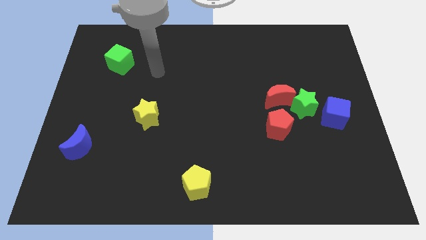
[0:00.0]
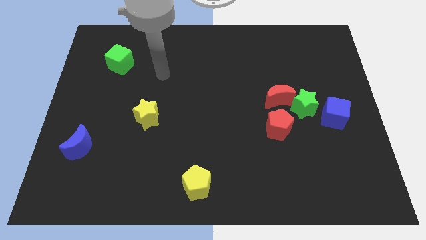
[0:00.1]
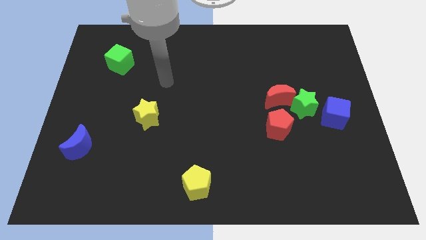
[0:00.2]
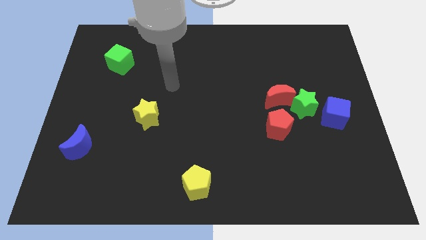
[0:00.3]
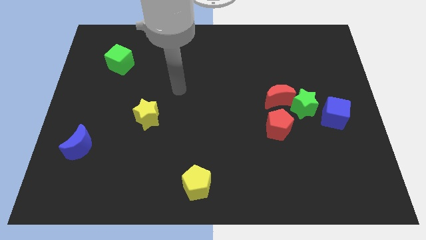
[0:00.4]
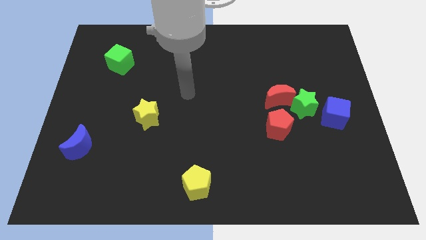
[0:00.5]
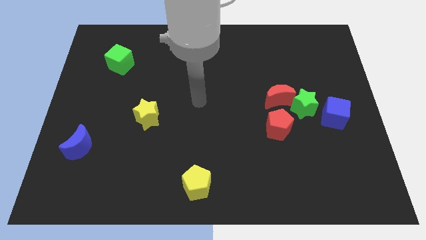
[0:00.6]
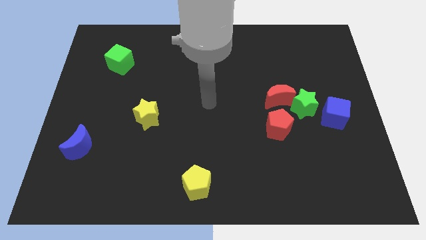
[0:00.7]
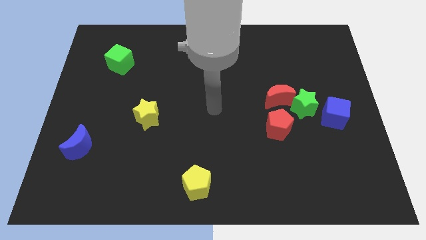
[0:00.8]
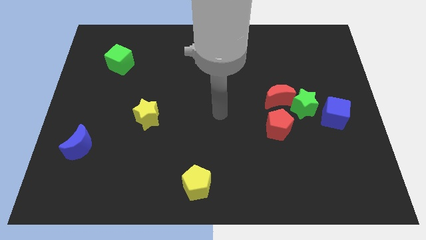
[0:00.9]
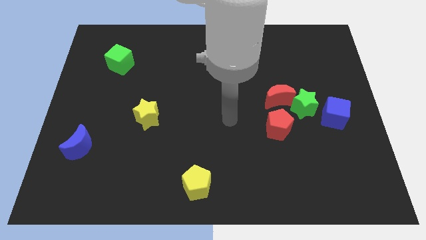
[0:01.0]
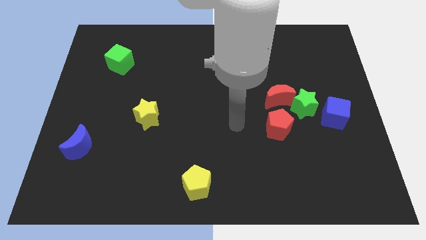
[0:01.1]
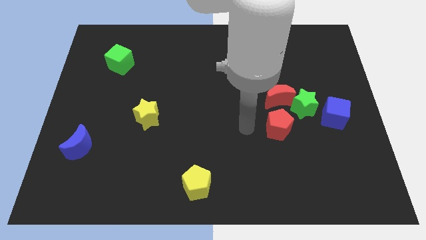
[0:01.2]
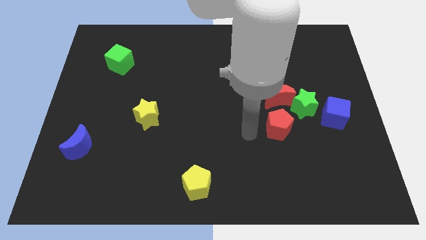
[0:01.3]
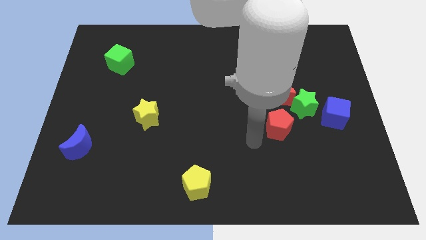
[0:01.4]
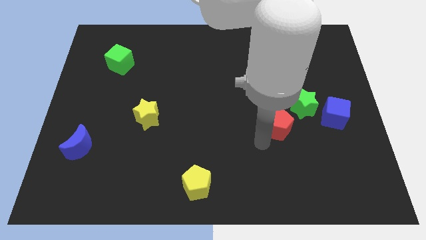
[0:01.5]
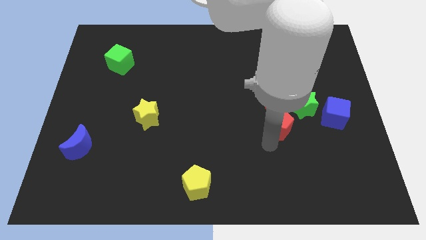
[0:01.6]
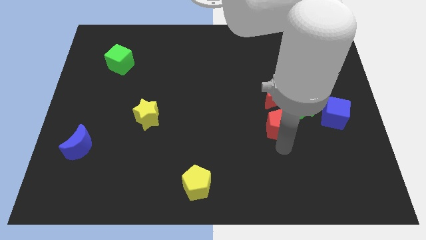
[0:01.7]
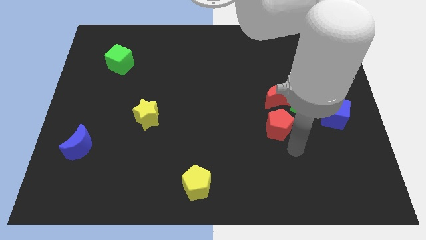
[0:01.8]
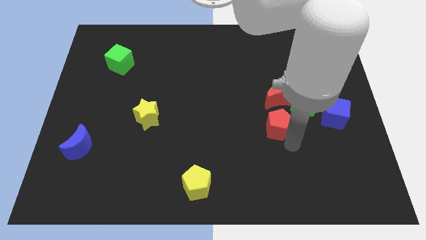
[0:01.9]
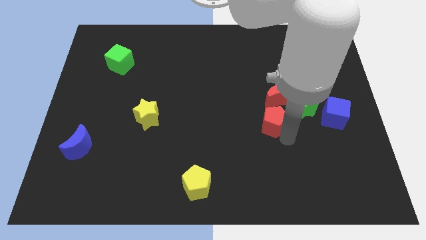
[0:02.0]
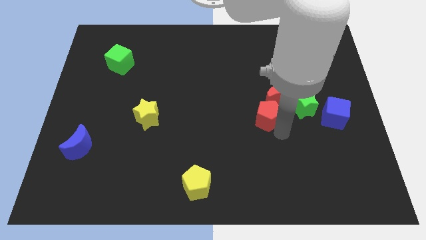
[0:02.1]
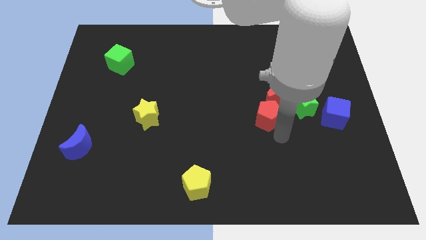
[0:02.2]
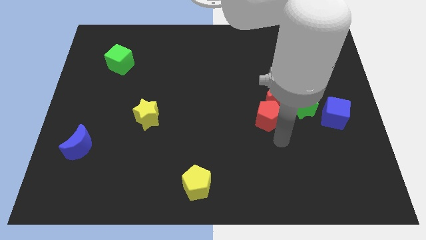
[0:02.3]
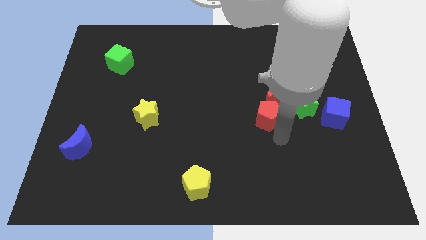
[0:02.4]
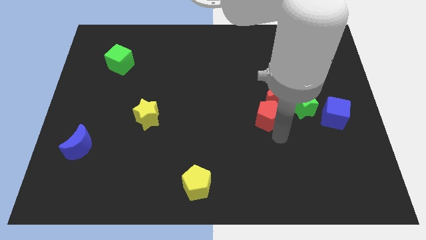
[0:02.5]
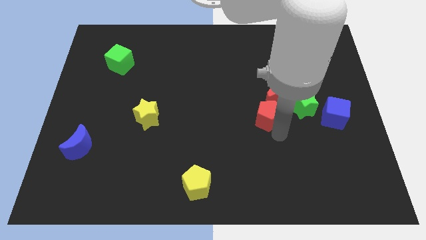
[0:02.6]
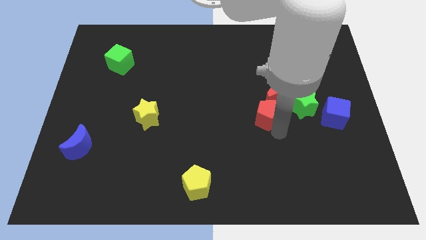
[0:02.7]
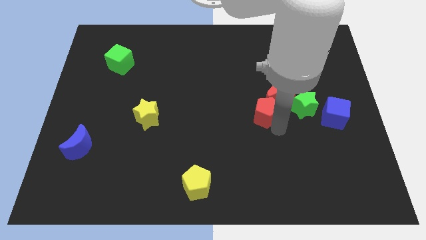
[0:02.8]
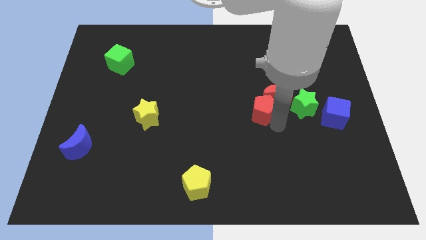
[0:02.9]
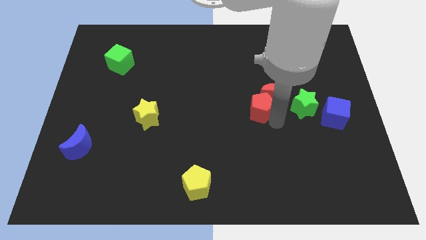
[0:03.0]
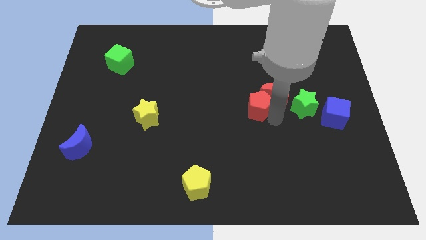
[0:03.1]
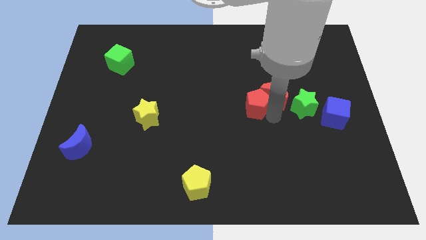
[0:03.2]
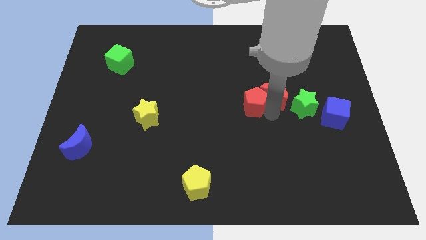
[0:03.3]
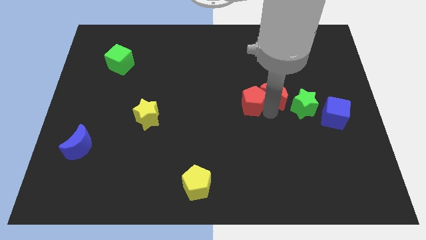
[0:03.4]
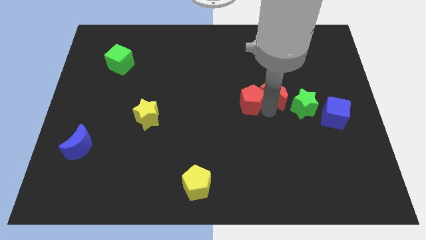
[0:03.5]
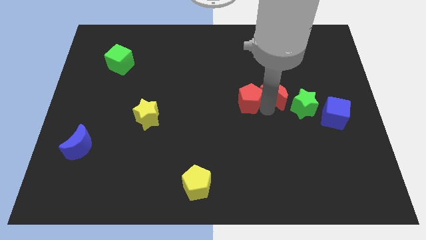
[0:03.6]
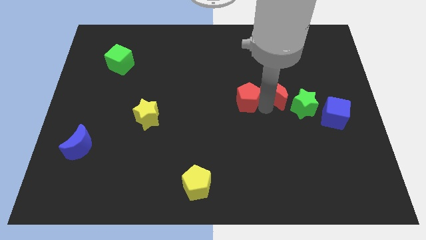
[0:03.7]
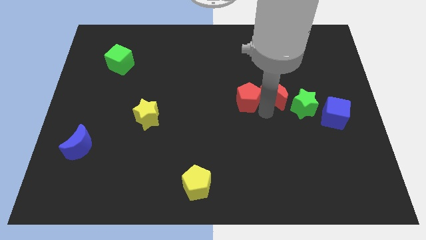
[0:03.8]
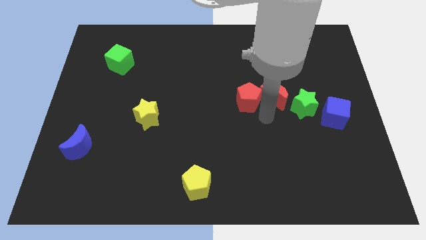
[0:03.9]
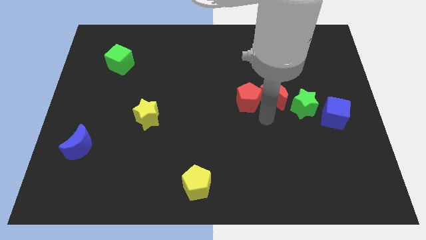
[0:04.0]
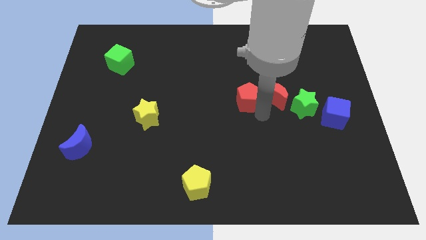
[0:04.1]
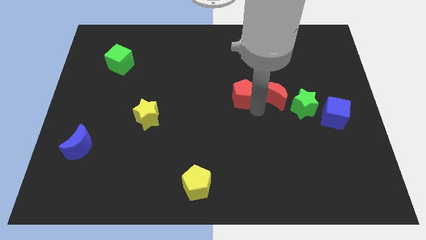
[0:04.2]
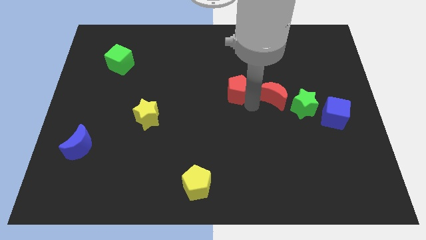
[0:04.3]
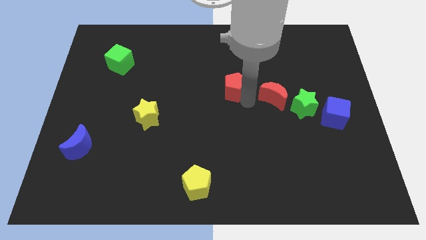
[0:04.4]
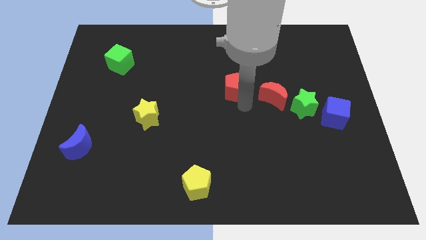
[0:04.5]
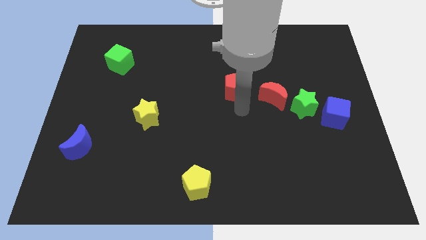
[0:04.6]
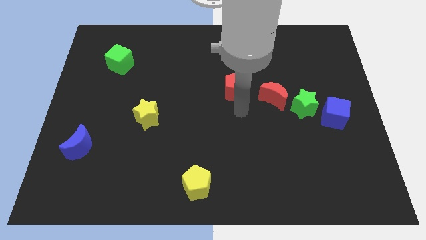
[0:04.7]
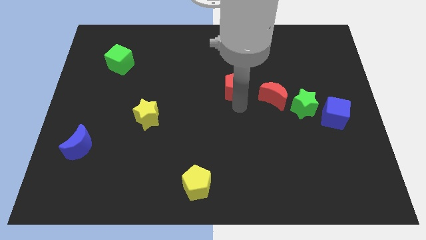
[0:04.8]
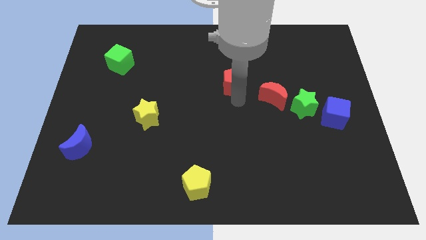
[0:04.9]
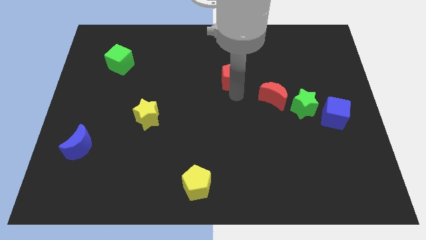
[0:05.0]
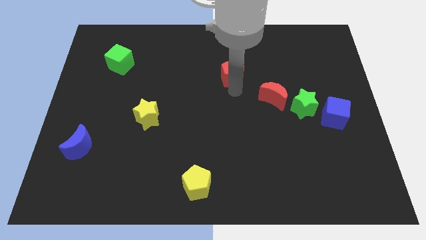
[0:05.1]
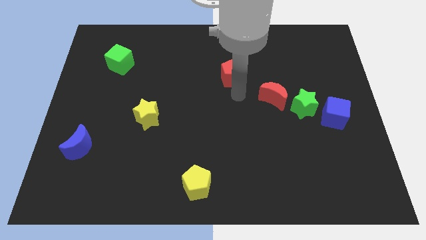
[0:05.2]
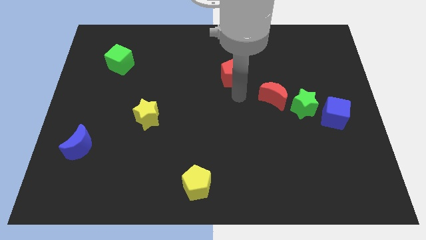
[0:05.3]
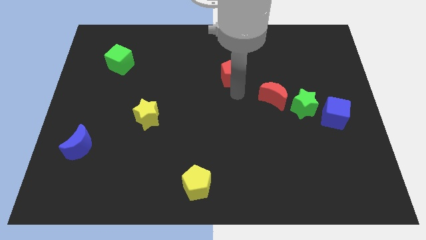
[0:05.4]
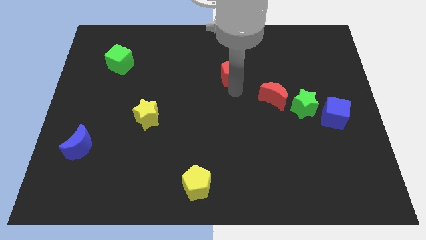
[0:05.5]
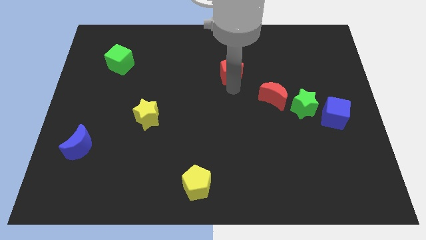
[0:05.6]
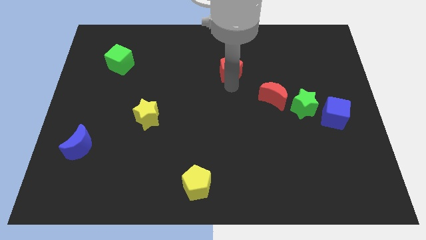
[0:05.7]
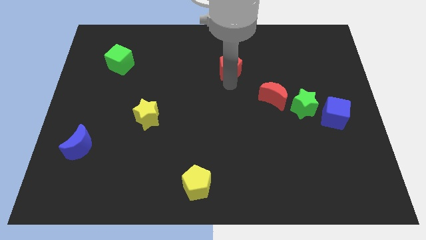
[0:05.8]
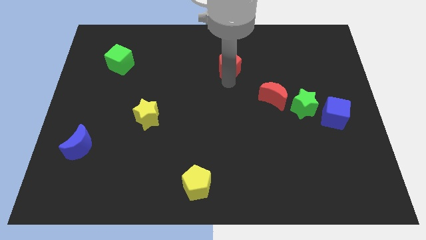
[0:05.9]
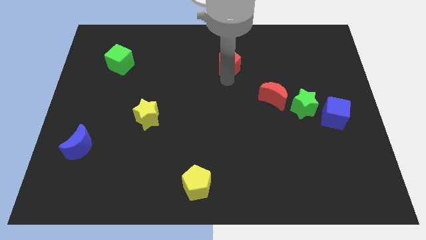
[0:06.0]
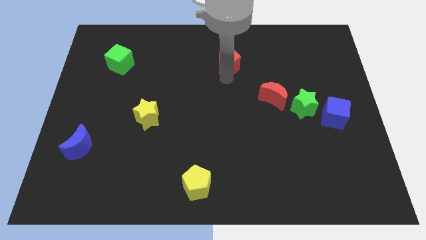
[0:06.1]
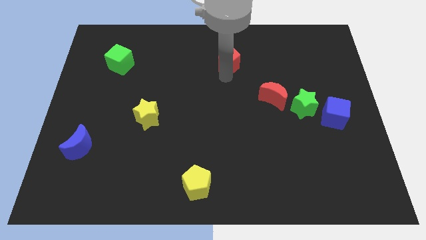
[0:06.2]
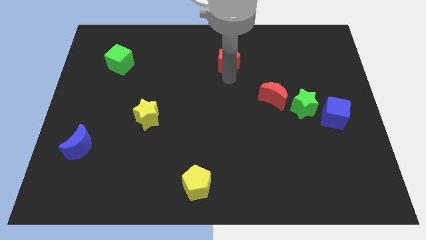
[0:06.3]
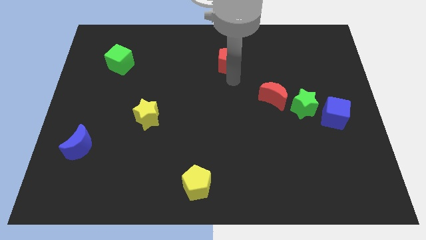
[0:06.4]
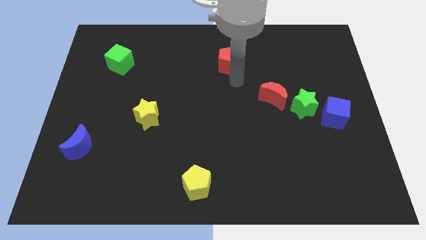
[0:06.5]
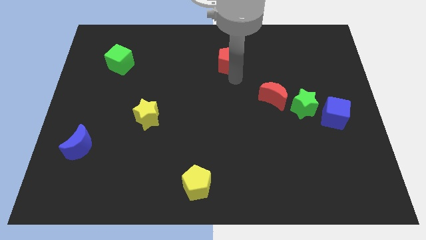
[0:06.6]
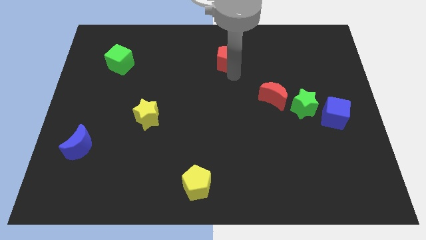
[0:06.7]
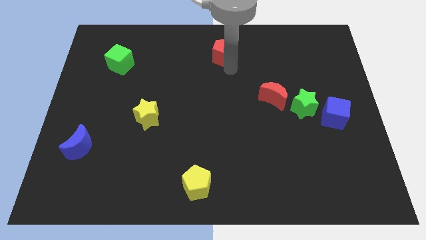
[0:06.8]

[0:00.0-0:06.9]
push the red pentagon to the top
